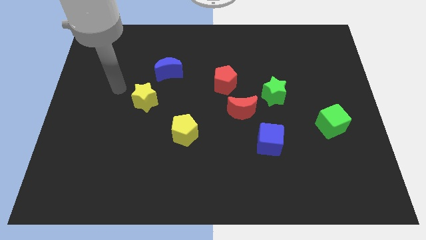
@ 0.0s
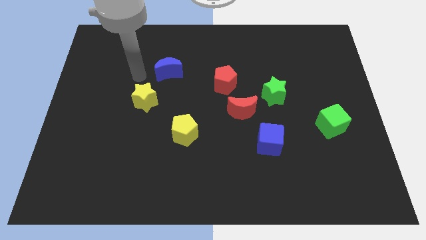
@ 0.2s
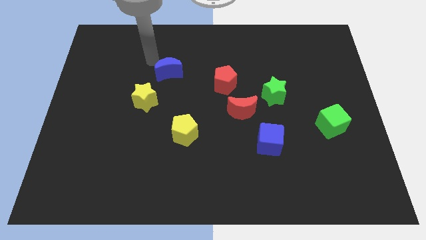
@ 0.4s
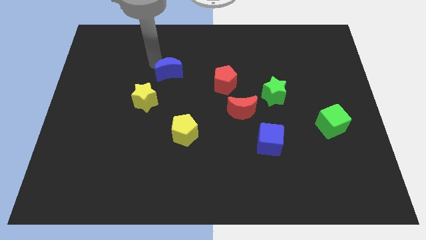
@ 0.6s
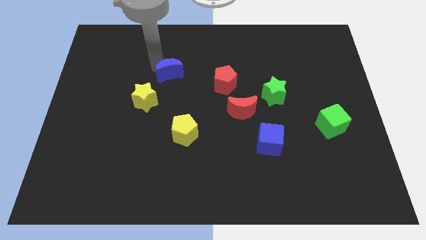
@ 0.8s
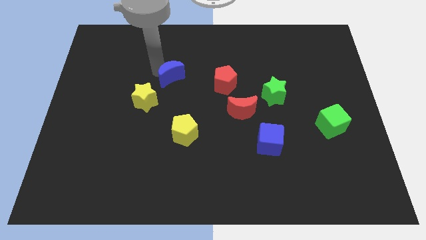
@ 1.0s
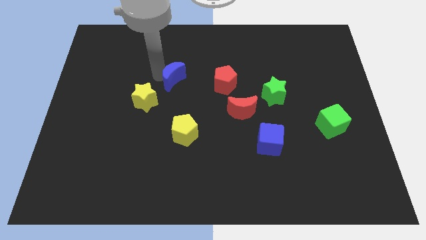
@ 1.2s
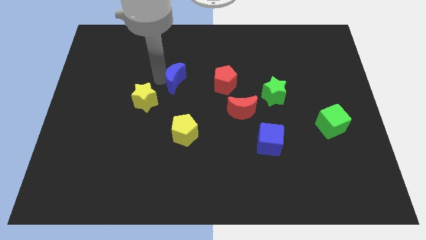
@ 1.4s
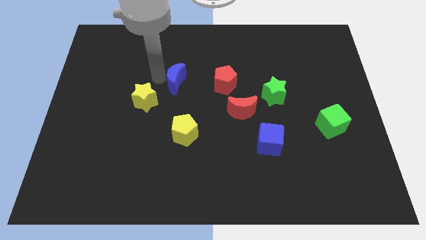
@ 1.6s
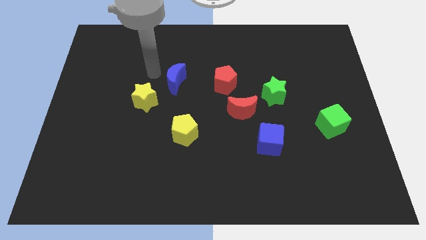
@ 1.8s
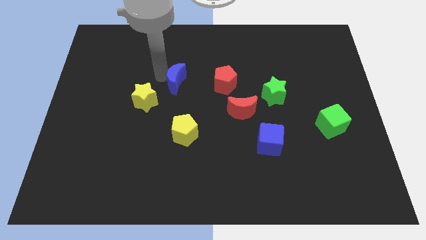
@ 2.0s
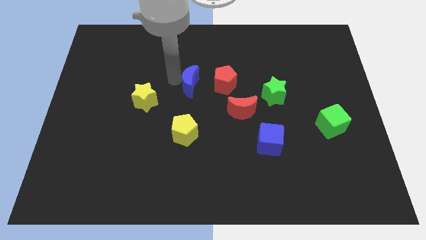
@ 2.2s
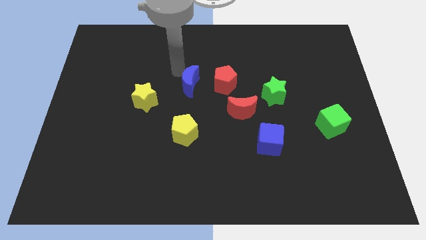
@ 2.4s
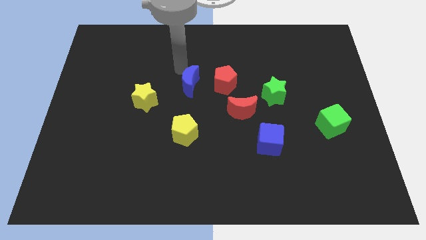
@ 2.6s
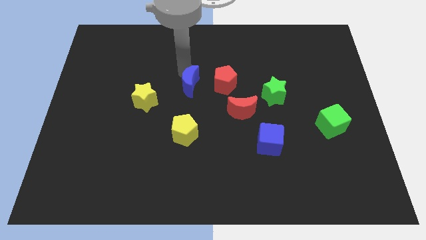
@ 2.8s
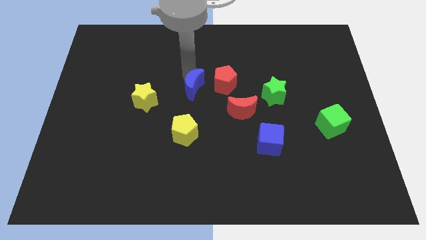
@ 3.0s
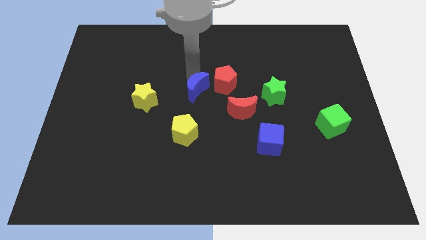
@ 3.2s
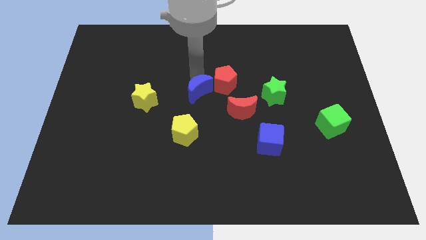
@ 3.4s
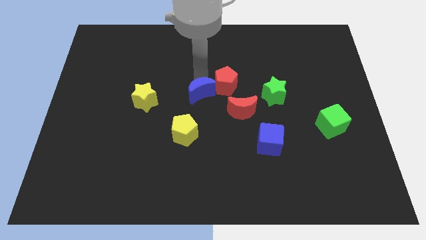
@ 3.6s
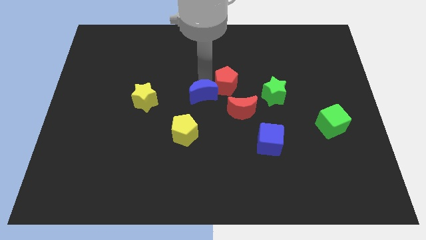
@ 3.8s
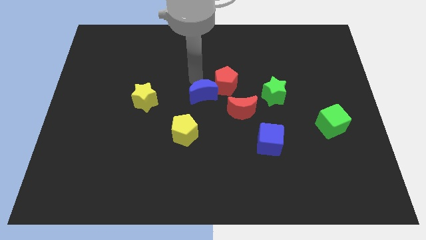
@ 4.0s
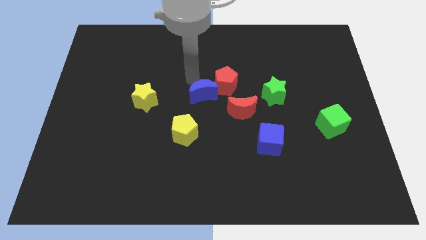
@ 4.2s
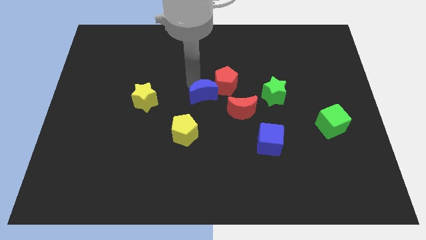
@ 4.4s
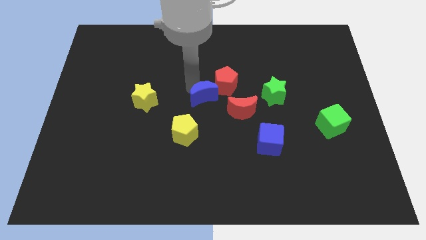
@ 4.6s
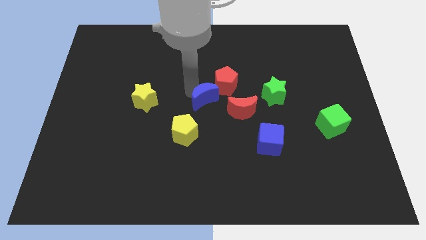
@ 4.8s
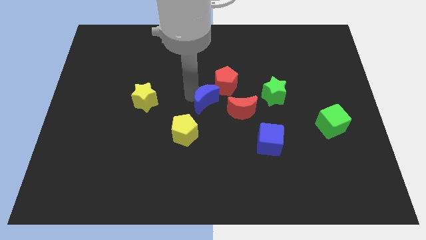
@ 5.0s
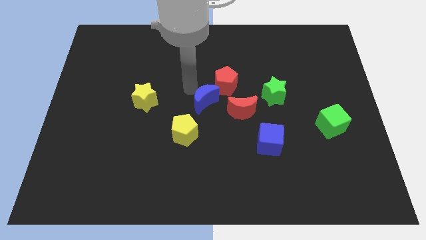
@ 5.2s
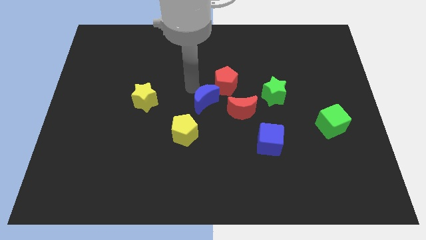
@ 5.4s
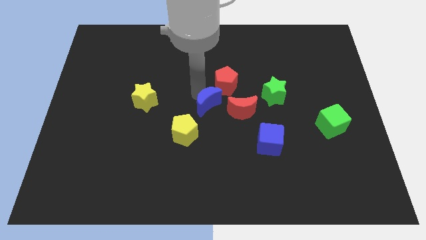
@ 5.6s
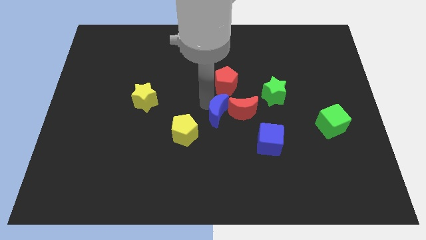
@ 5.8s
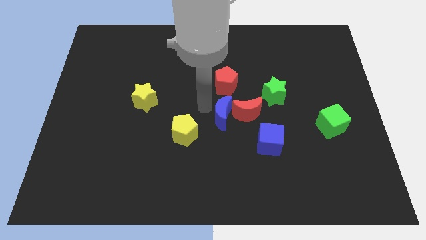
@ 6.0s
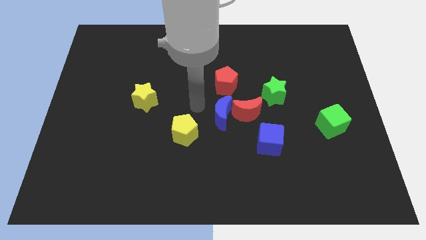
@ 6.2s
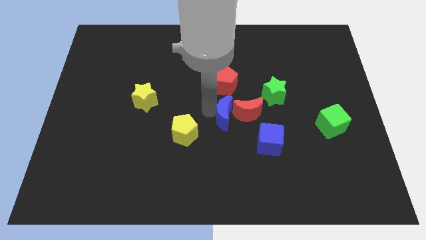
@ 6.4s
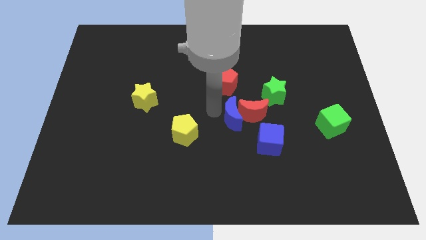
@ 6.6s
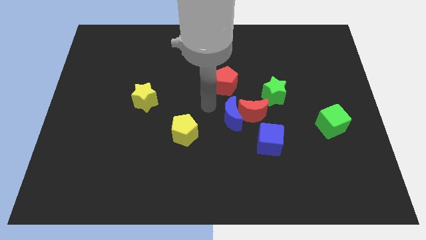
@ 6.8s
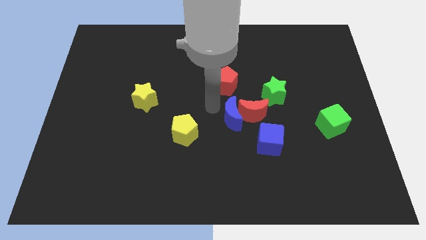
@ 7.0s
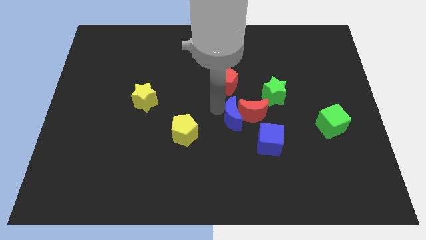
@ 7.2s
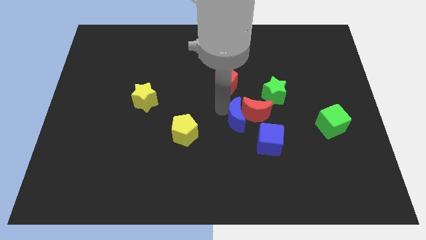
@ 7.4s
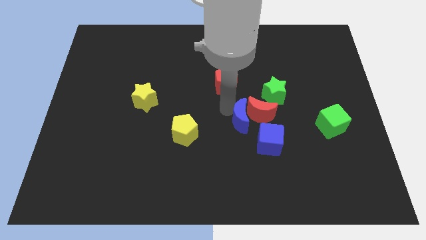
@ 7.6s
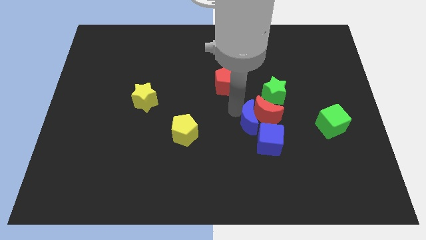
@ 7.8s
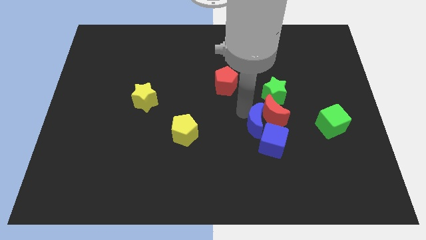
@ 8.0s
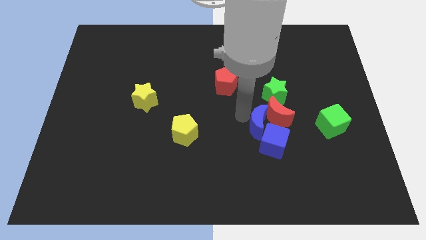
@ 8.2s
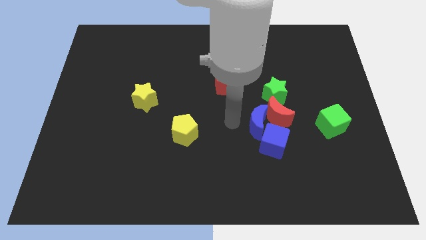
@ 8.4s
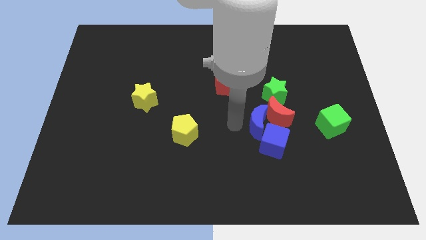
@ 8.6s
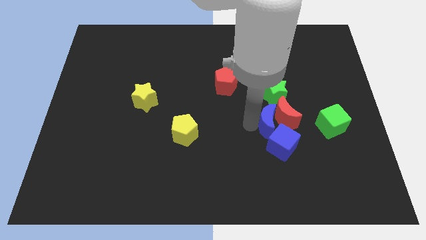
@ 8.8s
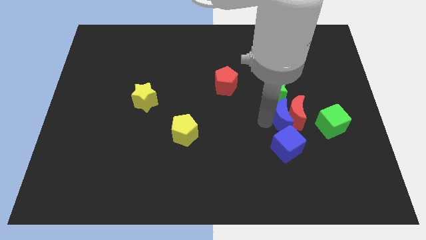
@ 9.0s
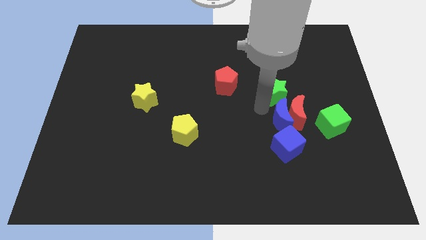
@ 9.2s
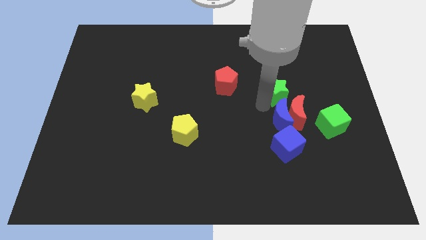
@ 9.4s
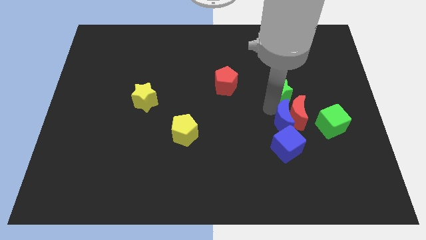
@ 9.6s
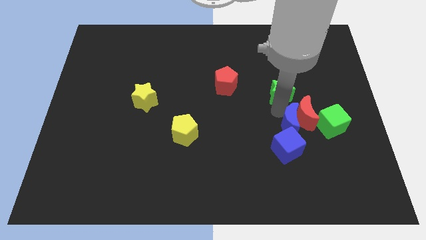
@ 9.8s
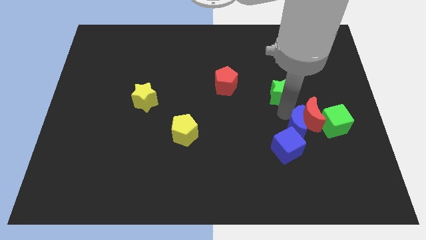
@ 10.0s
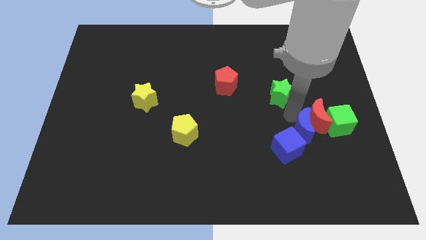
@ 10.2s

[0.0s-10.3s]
move the blue moon to the bottom left of the green cube

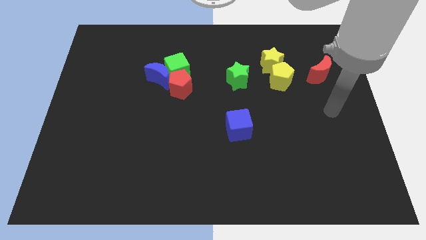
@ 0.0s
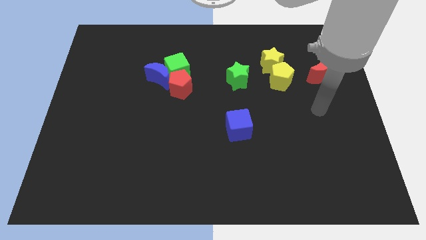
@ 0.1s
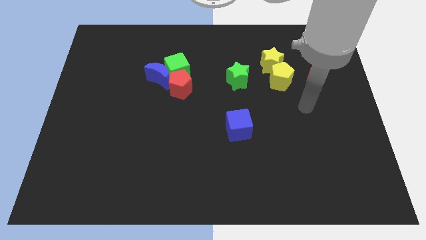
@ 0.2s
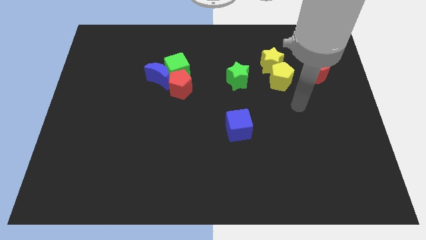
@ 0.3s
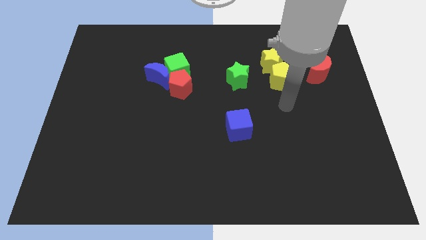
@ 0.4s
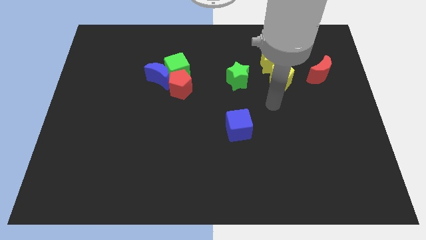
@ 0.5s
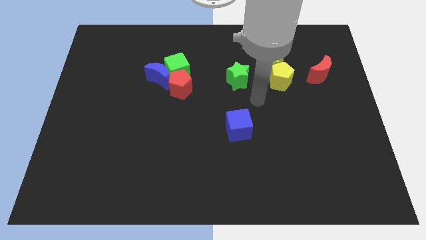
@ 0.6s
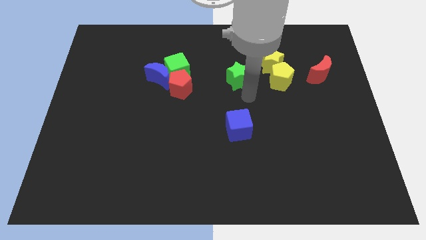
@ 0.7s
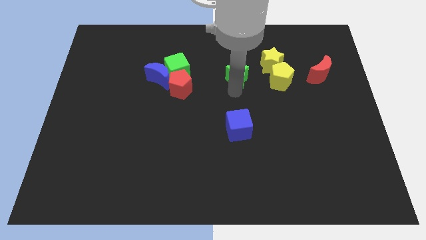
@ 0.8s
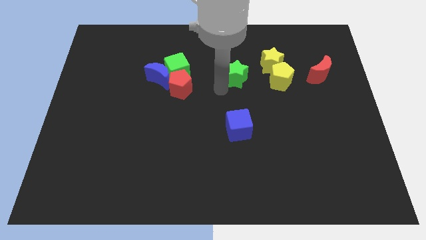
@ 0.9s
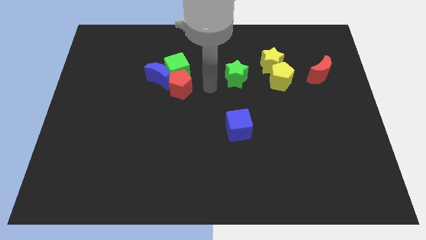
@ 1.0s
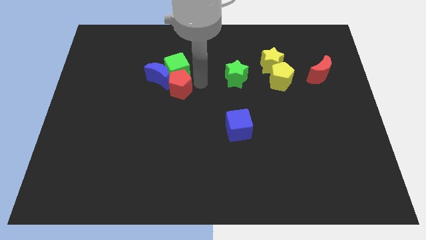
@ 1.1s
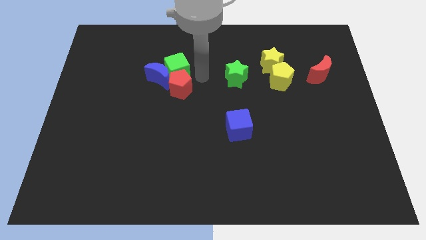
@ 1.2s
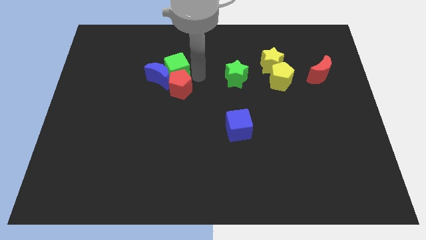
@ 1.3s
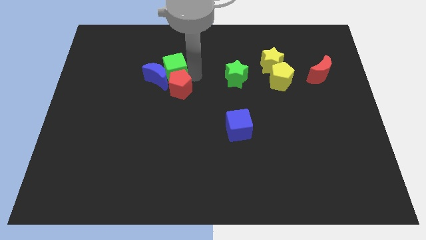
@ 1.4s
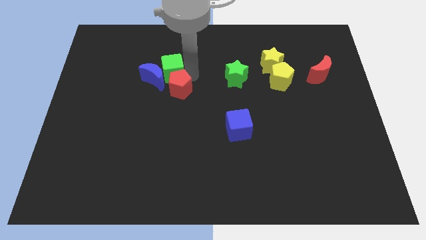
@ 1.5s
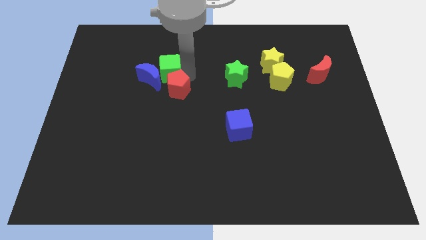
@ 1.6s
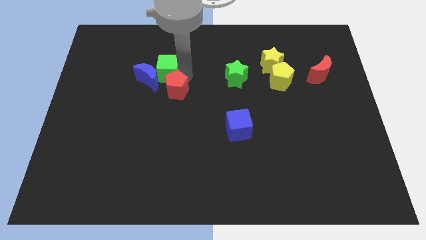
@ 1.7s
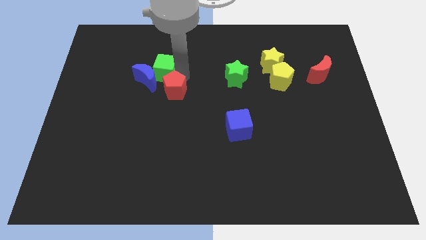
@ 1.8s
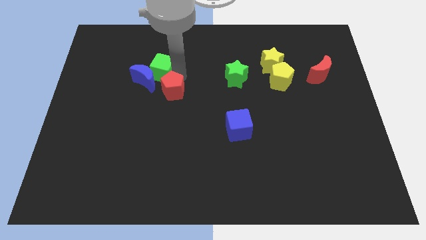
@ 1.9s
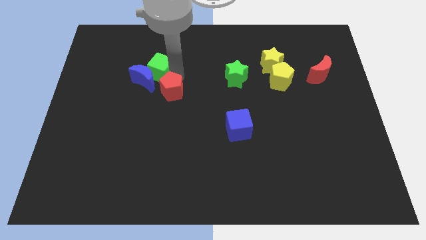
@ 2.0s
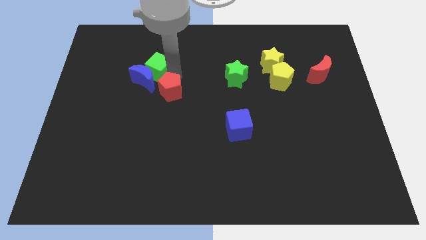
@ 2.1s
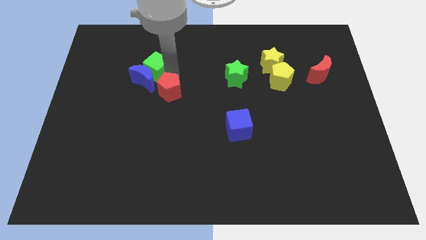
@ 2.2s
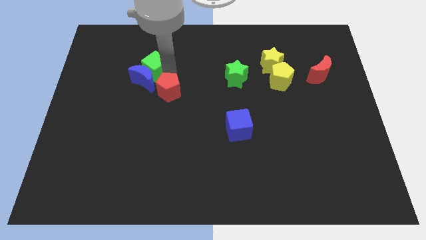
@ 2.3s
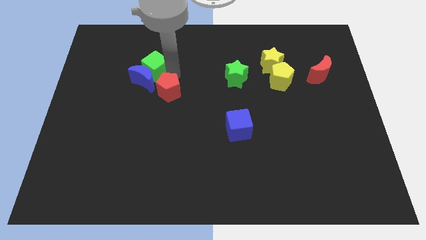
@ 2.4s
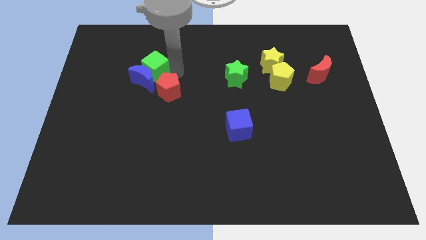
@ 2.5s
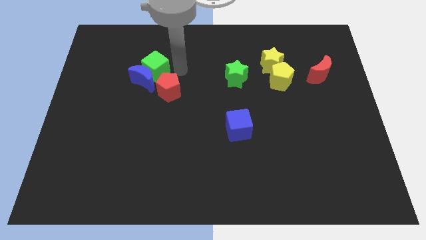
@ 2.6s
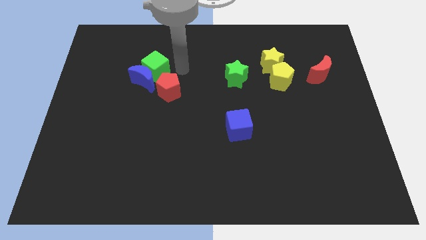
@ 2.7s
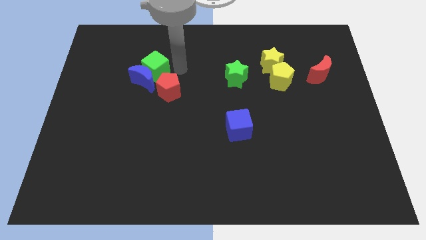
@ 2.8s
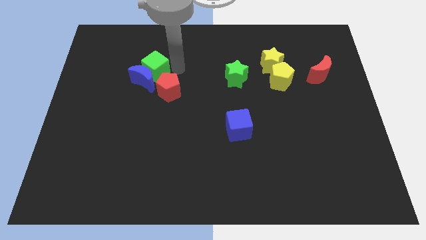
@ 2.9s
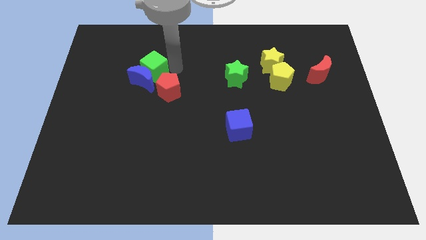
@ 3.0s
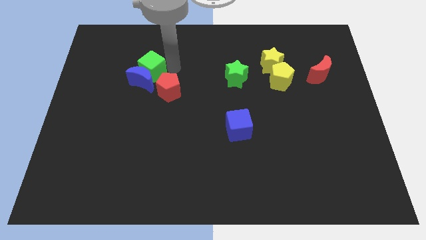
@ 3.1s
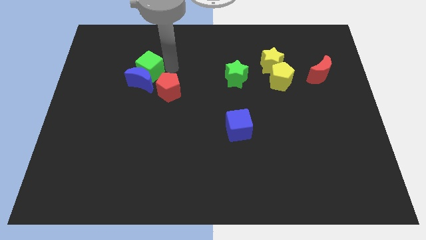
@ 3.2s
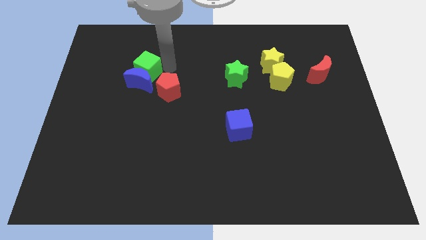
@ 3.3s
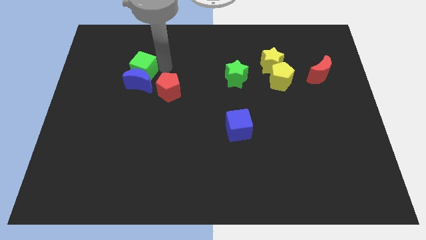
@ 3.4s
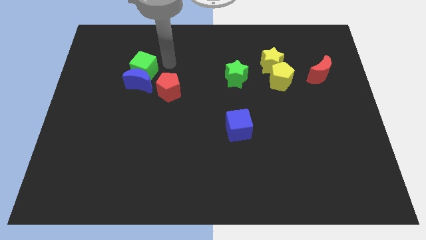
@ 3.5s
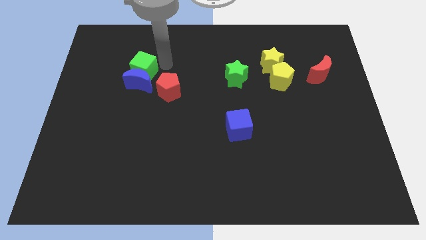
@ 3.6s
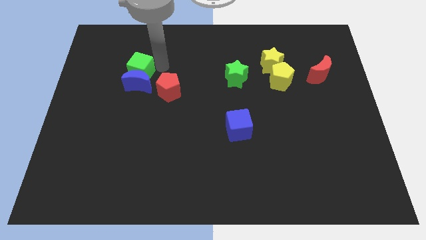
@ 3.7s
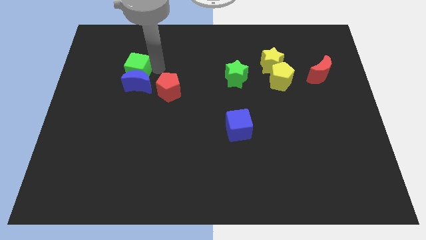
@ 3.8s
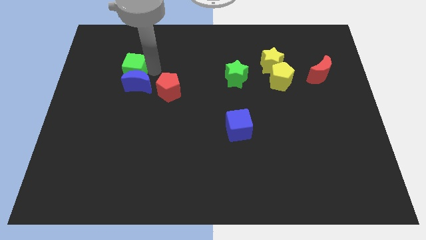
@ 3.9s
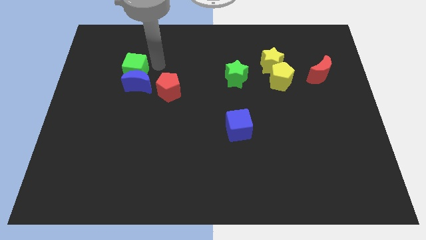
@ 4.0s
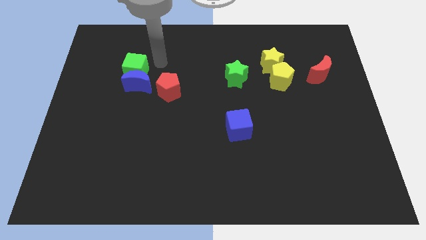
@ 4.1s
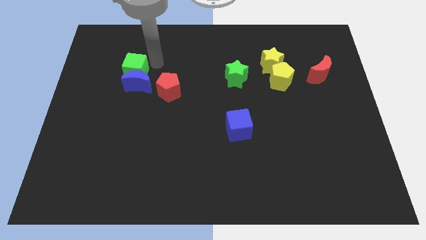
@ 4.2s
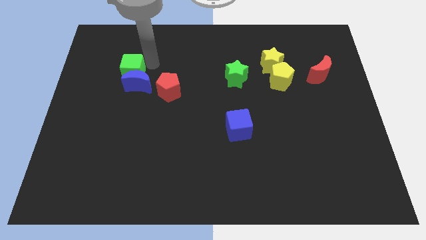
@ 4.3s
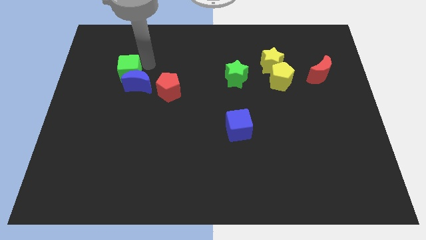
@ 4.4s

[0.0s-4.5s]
put the green cube to the left of the blue moon
